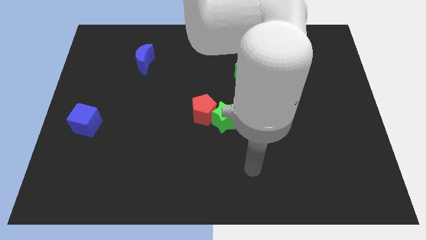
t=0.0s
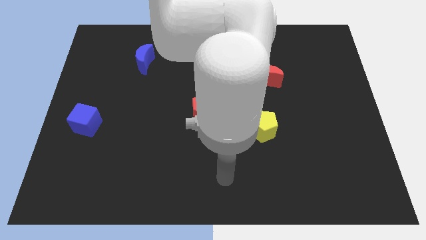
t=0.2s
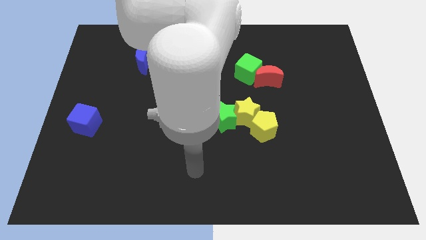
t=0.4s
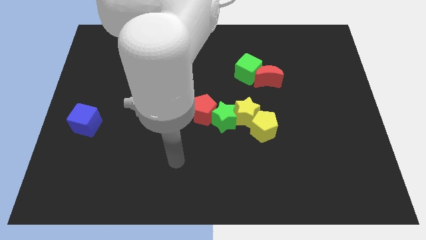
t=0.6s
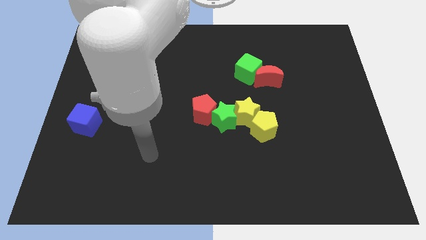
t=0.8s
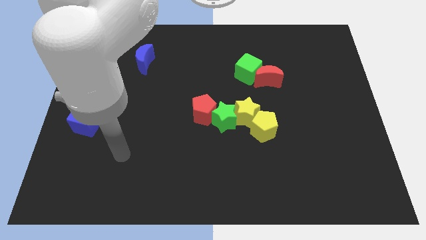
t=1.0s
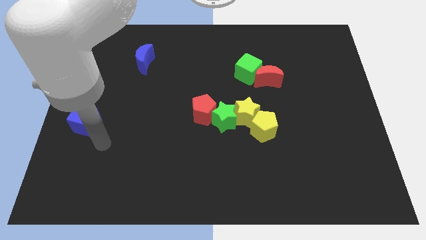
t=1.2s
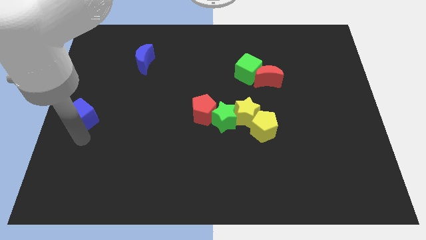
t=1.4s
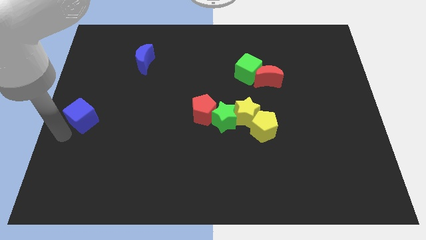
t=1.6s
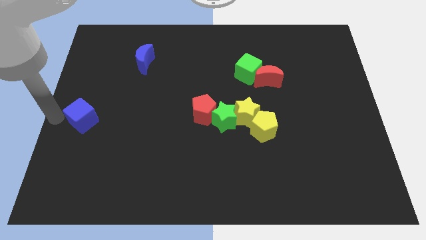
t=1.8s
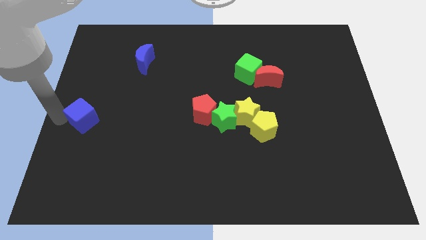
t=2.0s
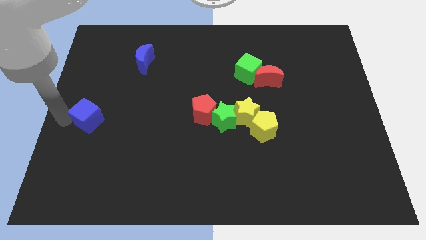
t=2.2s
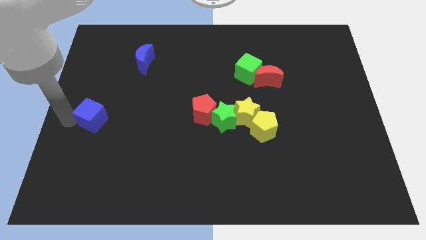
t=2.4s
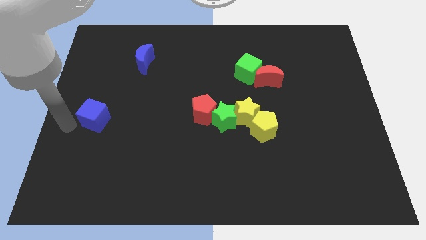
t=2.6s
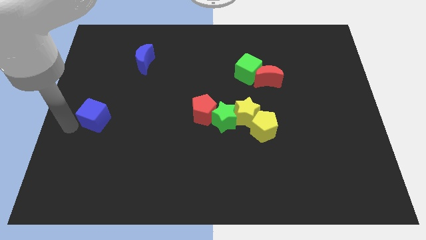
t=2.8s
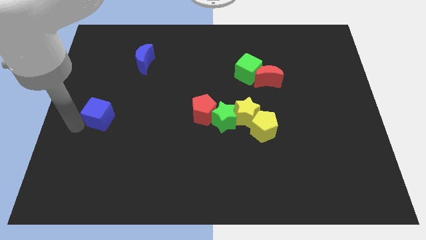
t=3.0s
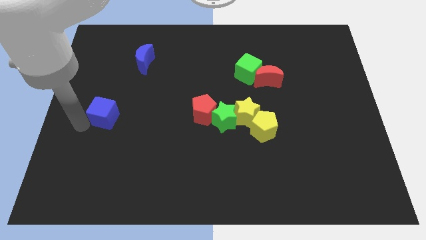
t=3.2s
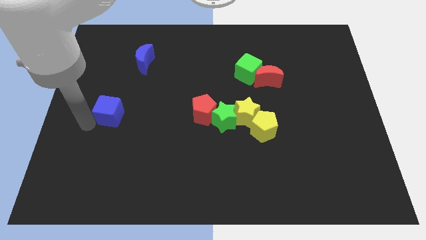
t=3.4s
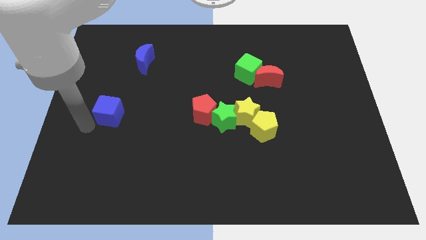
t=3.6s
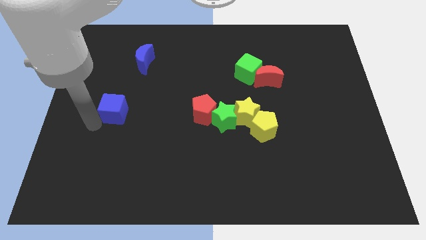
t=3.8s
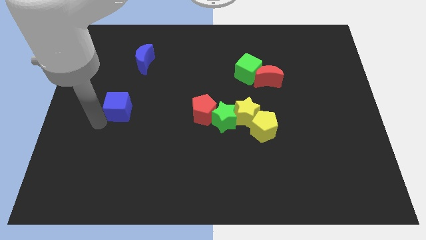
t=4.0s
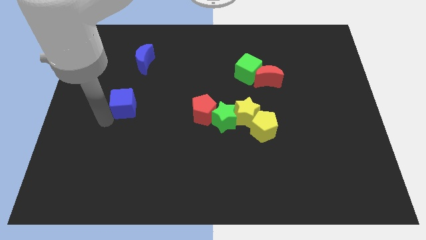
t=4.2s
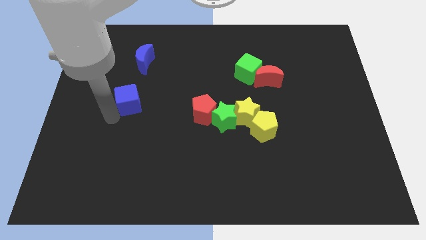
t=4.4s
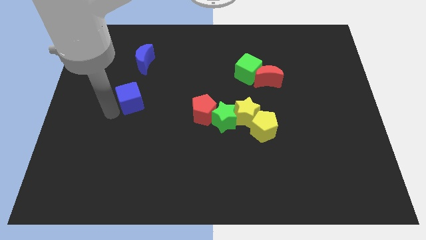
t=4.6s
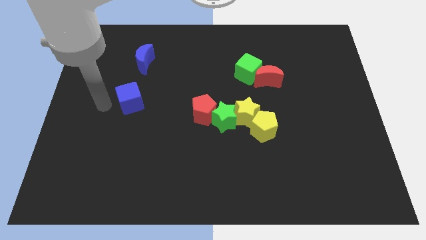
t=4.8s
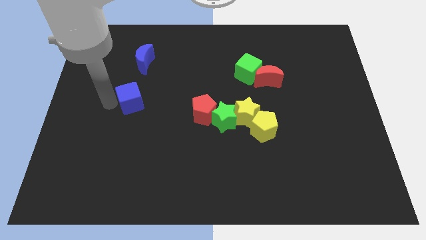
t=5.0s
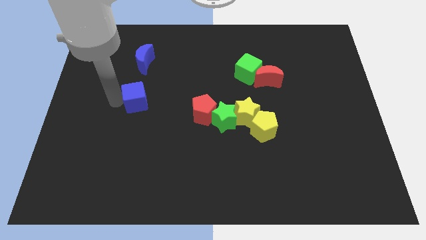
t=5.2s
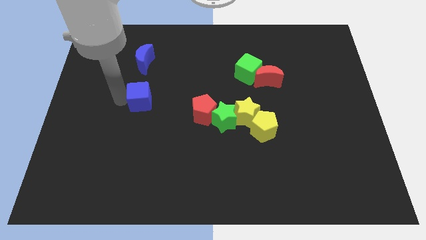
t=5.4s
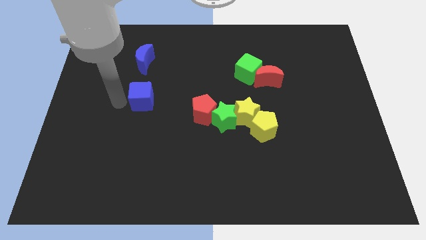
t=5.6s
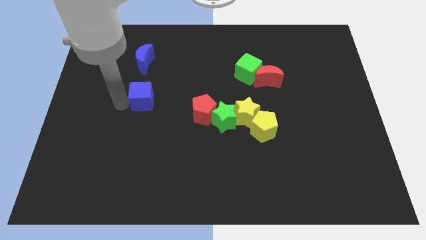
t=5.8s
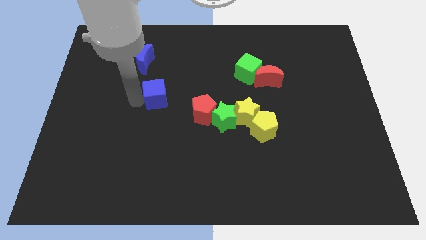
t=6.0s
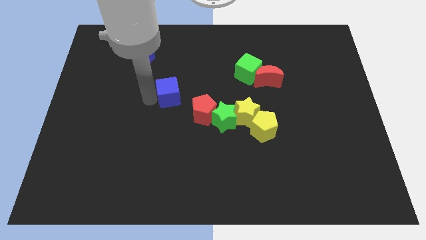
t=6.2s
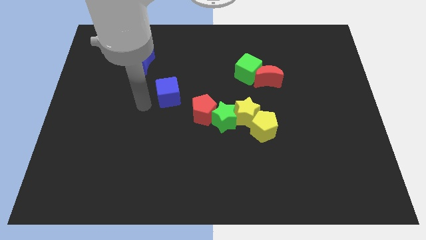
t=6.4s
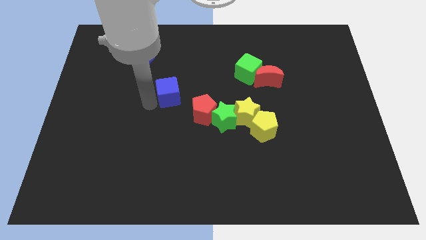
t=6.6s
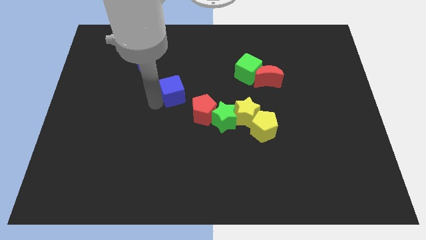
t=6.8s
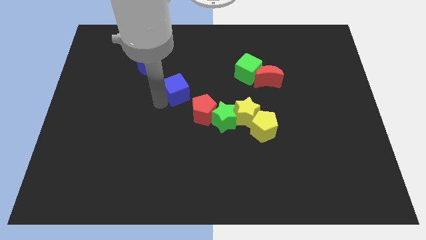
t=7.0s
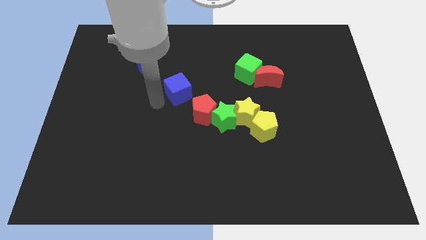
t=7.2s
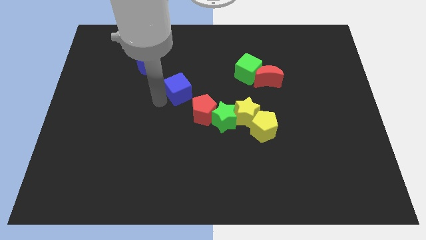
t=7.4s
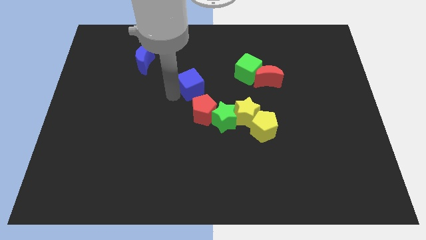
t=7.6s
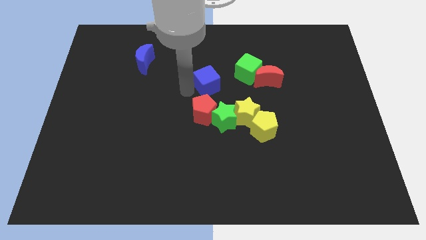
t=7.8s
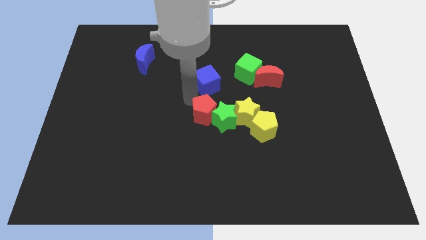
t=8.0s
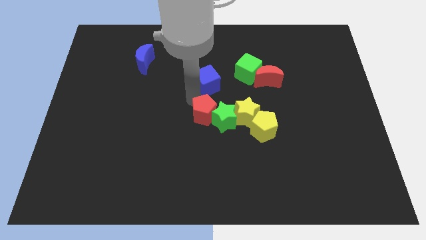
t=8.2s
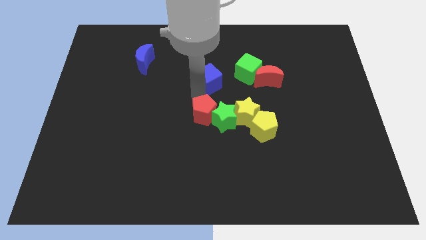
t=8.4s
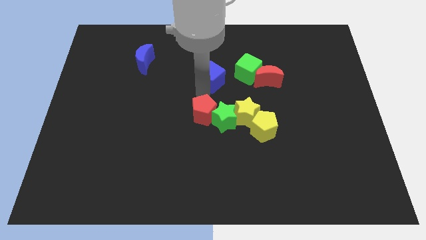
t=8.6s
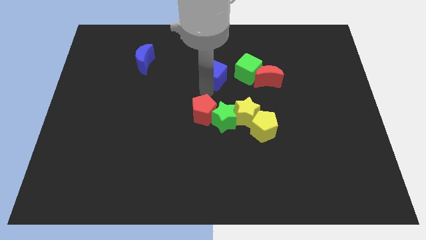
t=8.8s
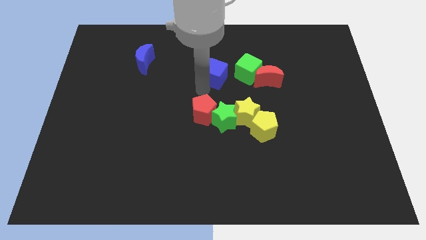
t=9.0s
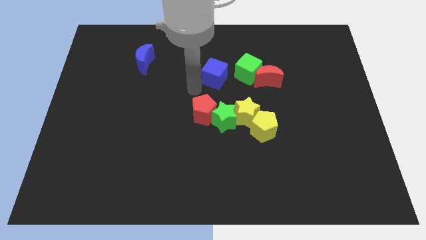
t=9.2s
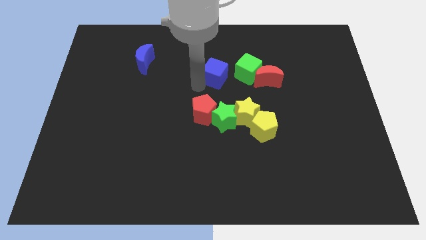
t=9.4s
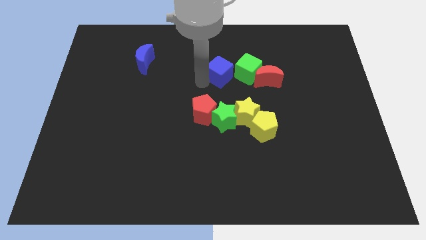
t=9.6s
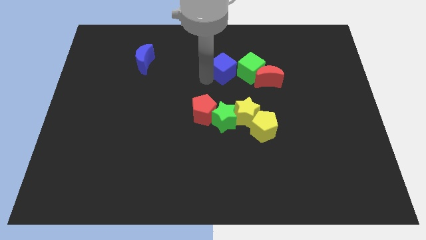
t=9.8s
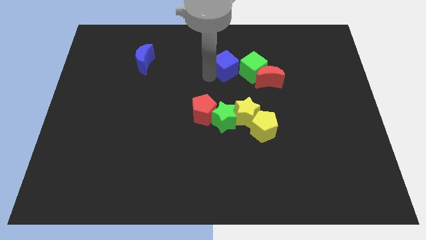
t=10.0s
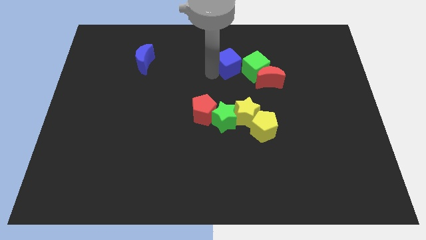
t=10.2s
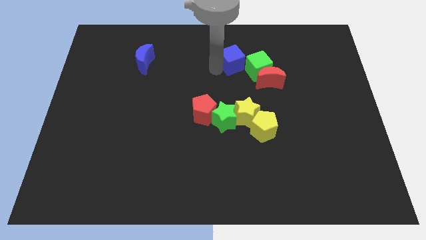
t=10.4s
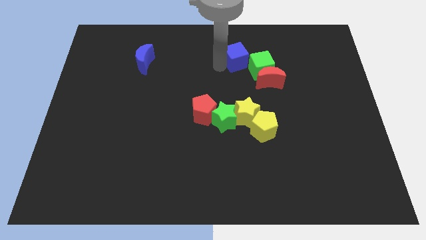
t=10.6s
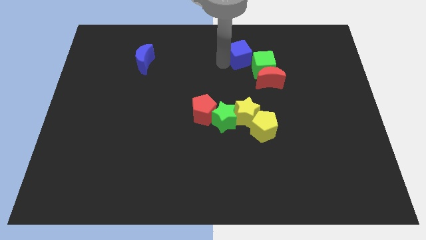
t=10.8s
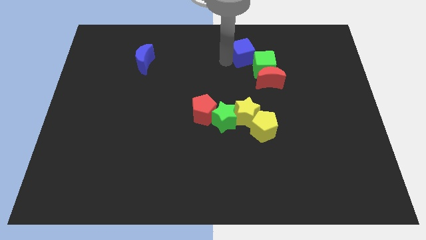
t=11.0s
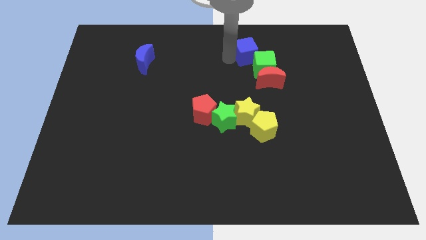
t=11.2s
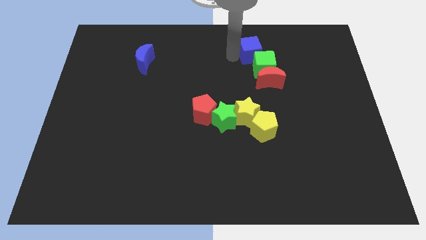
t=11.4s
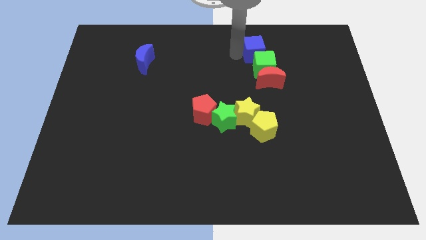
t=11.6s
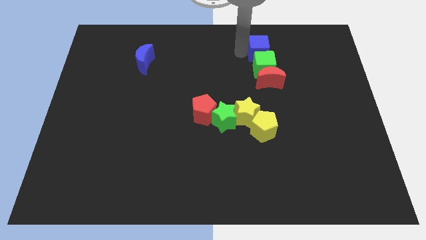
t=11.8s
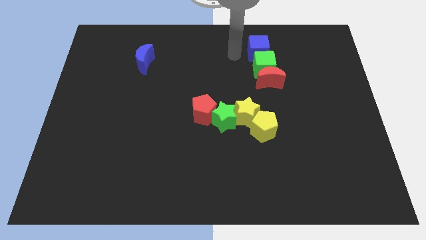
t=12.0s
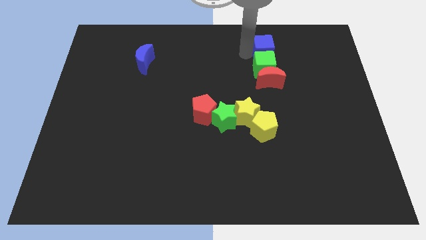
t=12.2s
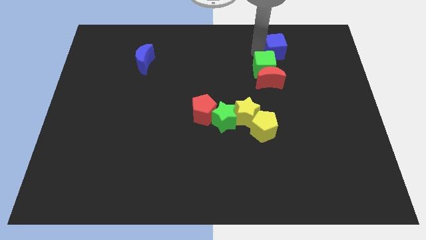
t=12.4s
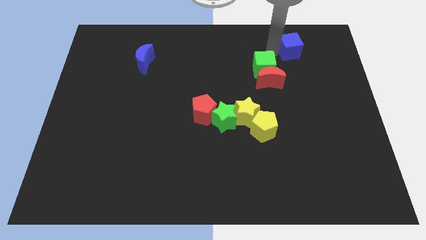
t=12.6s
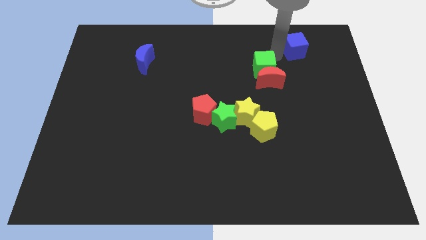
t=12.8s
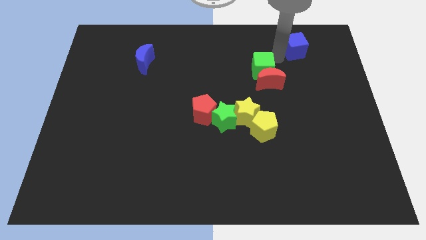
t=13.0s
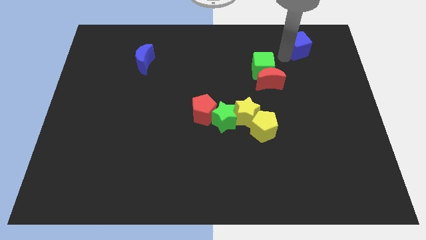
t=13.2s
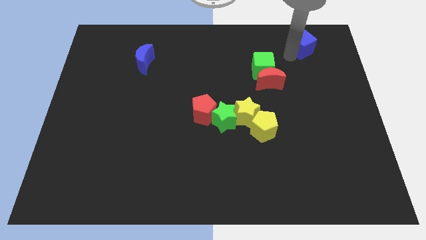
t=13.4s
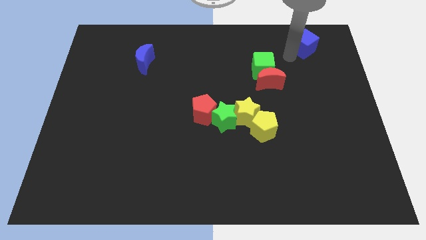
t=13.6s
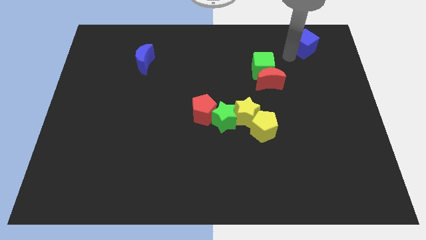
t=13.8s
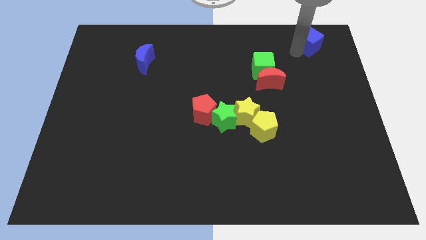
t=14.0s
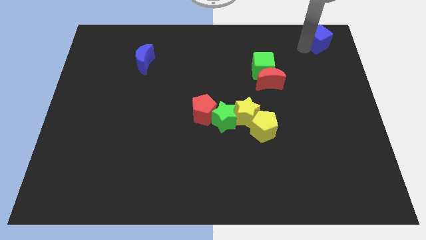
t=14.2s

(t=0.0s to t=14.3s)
slide the blue cube to the top right corner

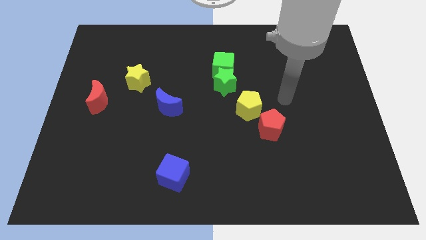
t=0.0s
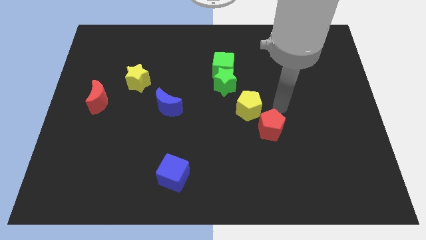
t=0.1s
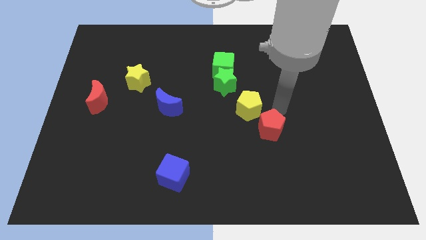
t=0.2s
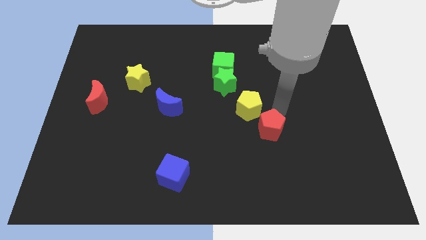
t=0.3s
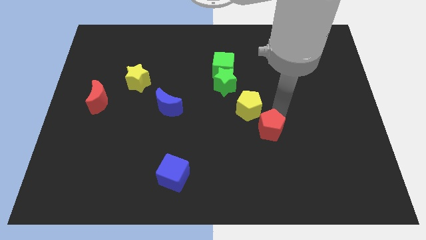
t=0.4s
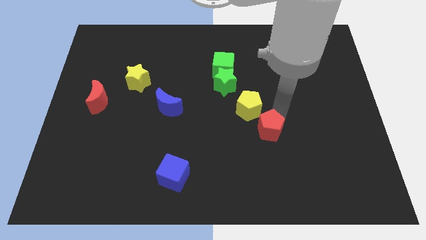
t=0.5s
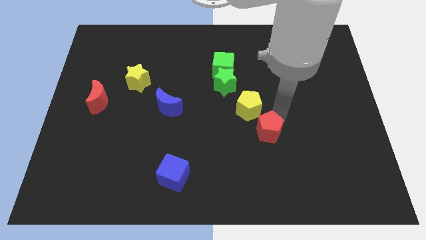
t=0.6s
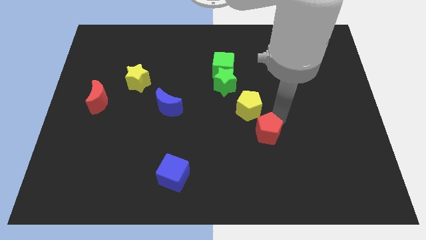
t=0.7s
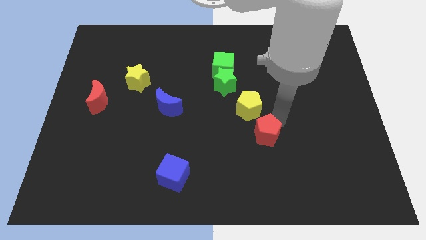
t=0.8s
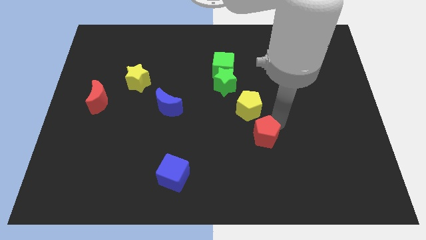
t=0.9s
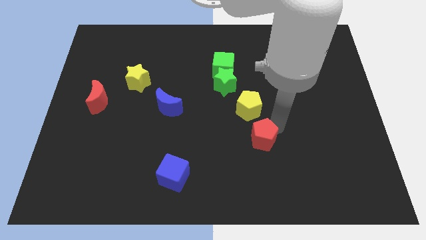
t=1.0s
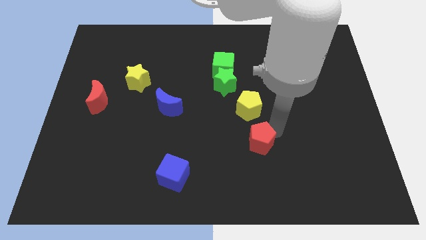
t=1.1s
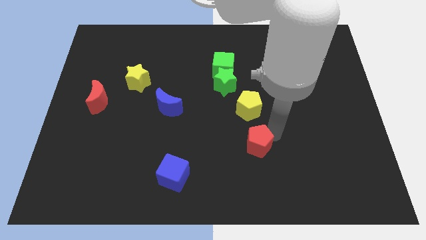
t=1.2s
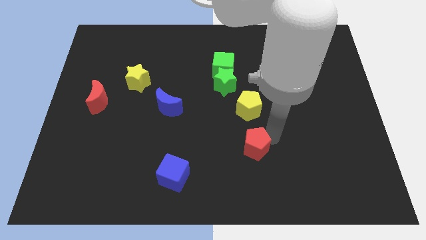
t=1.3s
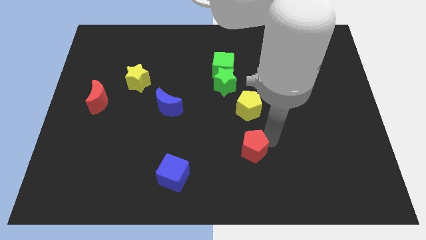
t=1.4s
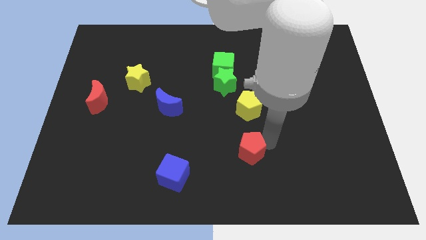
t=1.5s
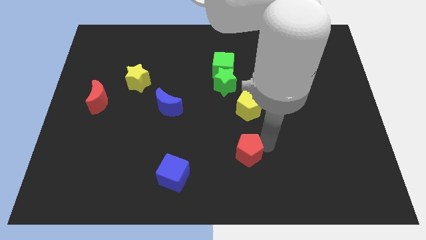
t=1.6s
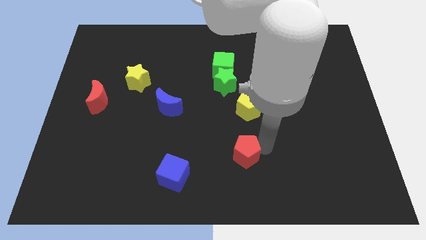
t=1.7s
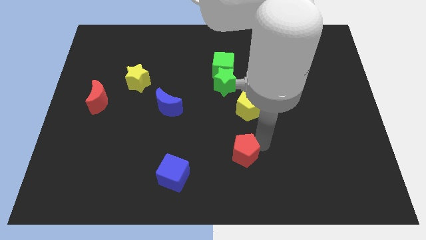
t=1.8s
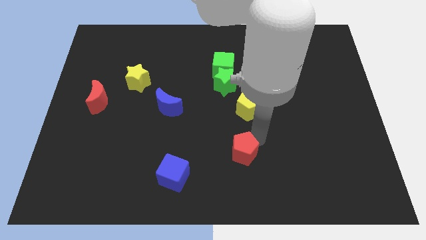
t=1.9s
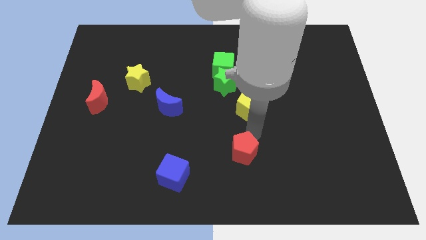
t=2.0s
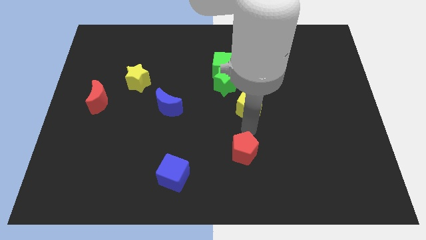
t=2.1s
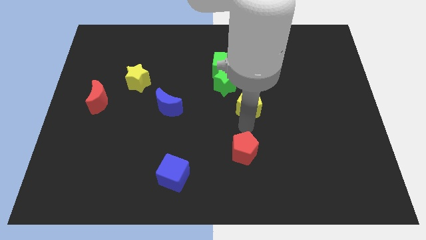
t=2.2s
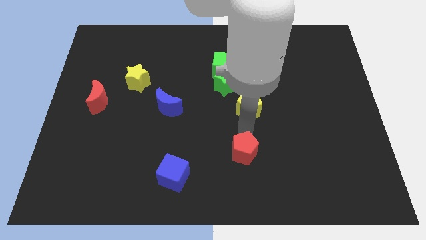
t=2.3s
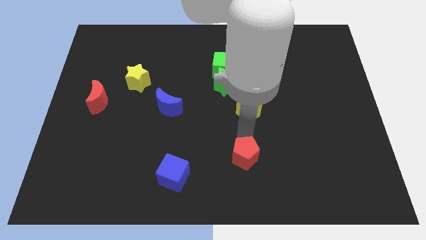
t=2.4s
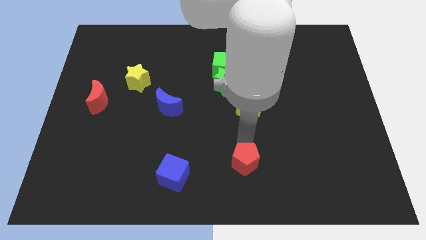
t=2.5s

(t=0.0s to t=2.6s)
move the red pentagon to the bottom
